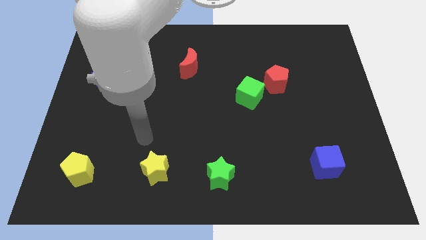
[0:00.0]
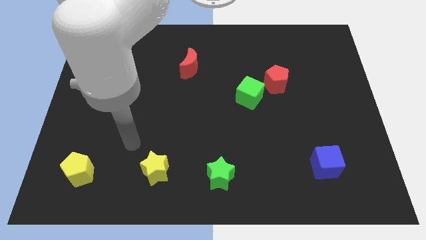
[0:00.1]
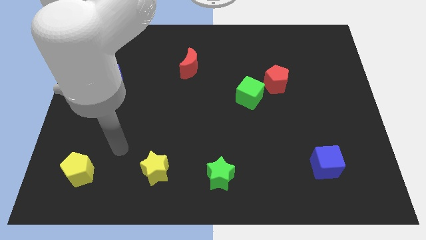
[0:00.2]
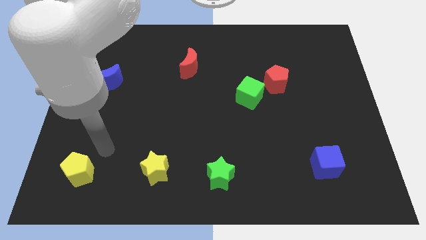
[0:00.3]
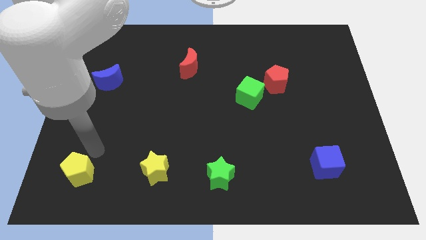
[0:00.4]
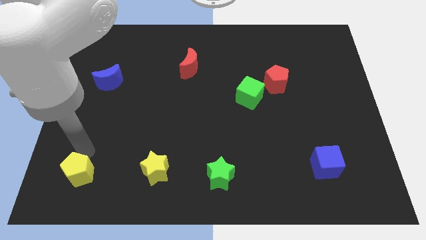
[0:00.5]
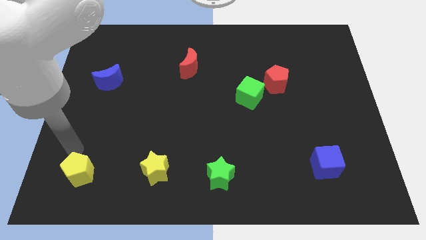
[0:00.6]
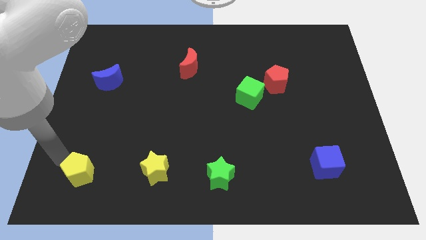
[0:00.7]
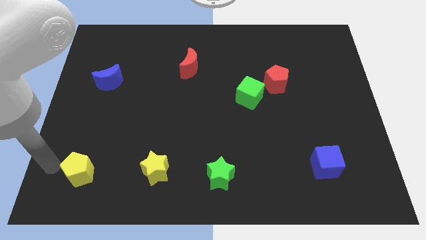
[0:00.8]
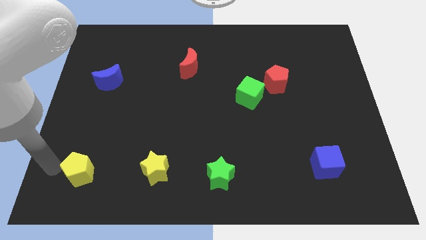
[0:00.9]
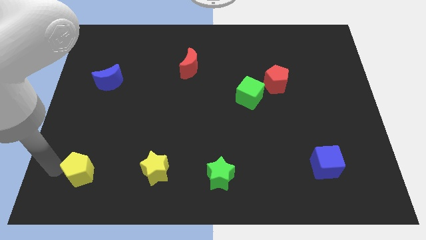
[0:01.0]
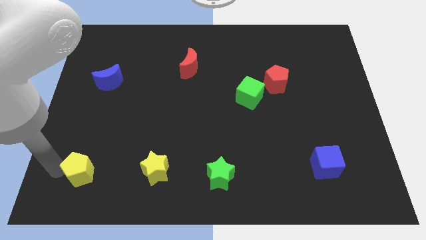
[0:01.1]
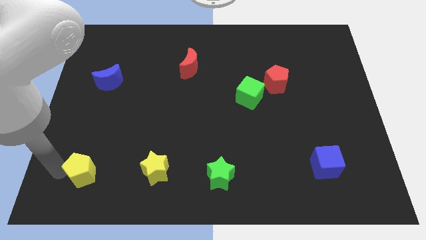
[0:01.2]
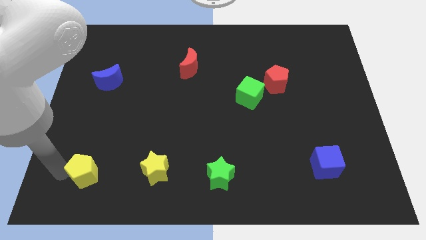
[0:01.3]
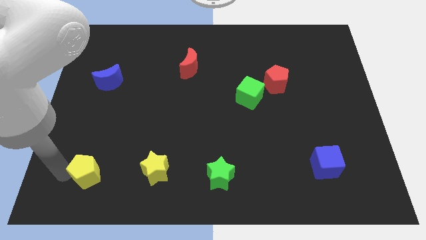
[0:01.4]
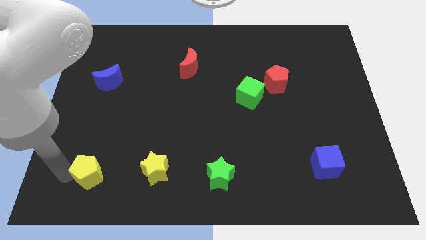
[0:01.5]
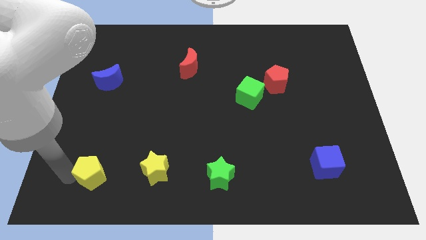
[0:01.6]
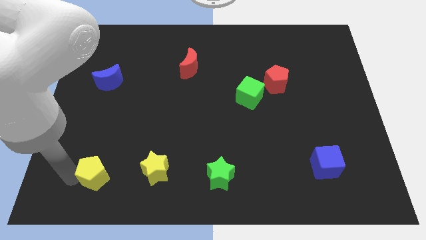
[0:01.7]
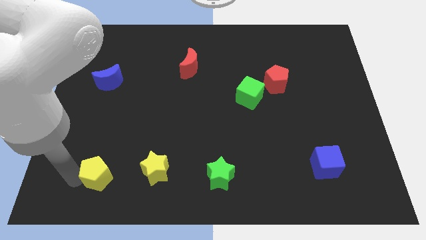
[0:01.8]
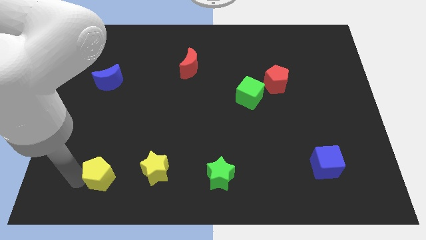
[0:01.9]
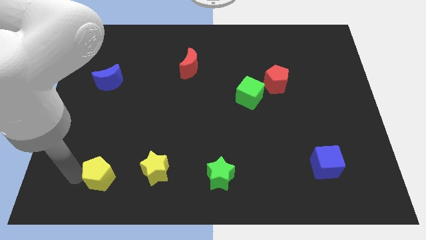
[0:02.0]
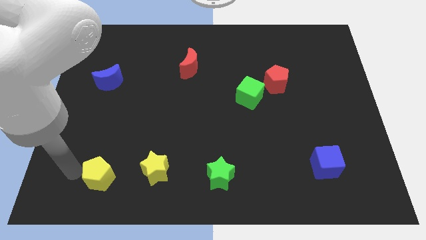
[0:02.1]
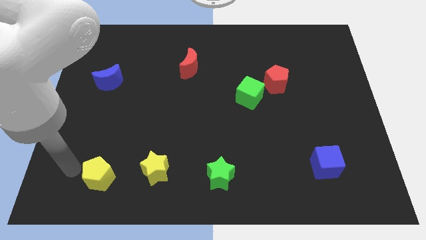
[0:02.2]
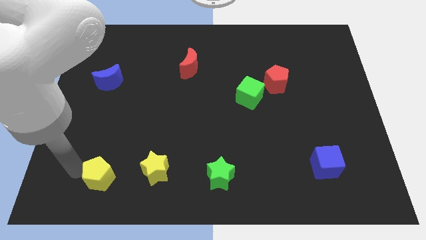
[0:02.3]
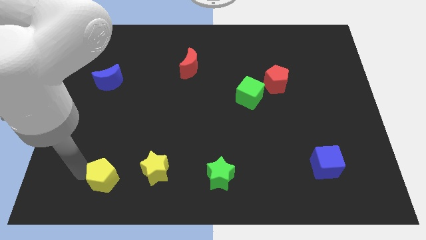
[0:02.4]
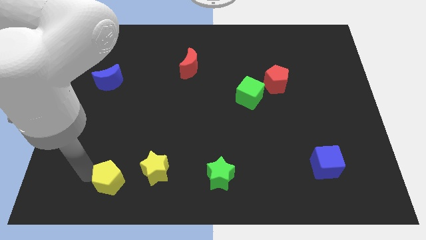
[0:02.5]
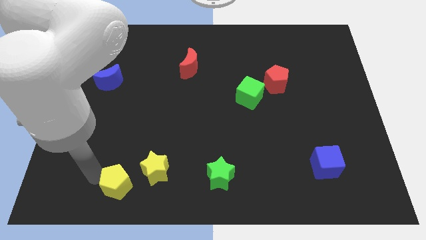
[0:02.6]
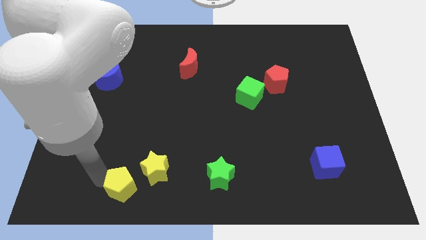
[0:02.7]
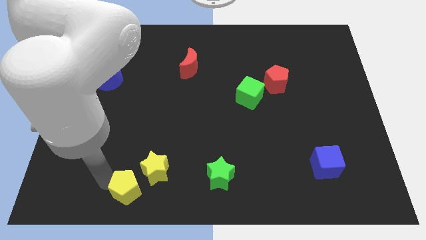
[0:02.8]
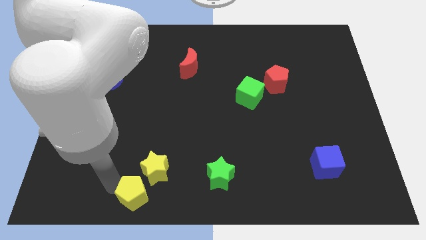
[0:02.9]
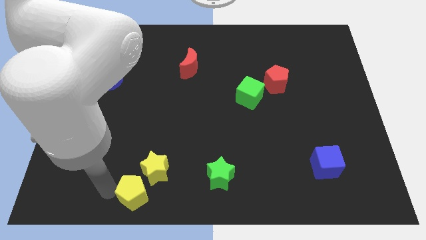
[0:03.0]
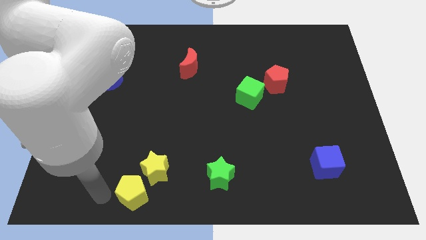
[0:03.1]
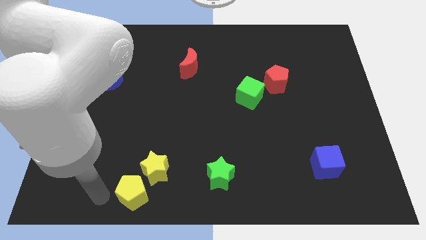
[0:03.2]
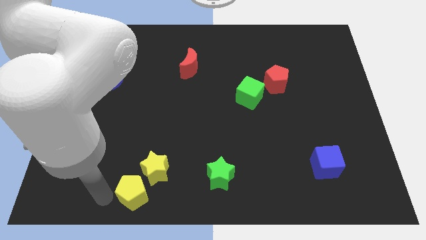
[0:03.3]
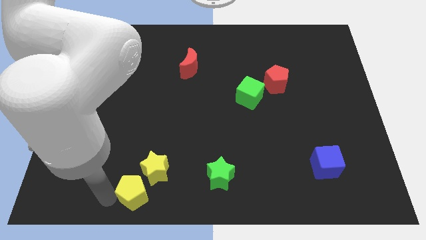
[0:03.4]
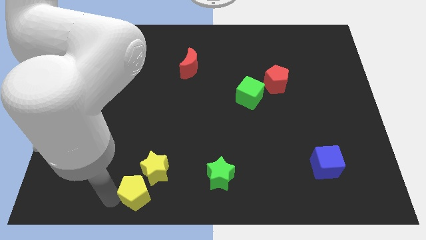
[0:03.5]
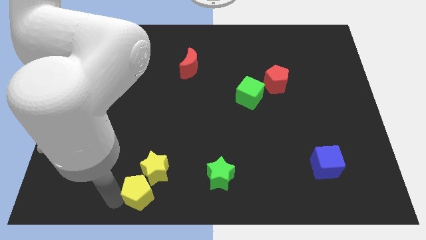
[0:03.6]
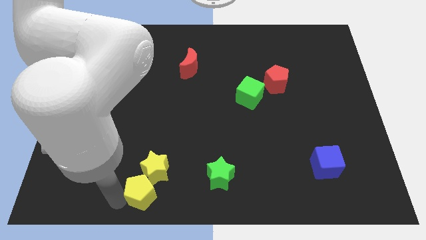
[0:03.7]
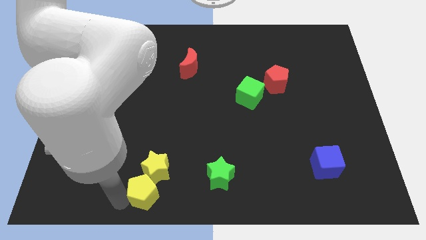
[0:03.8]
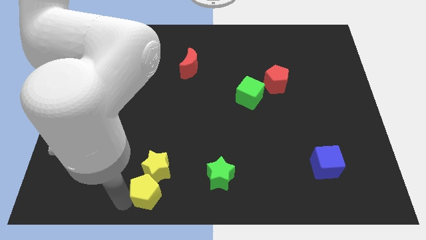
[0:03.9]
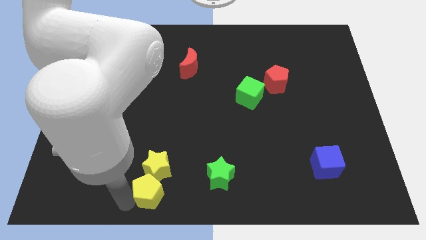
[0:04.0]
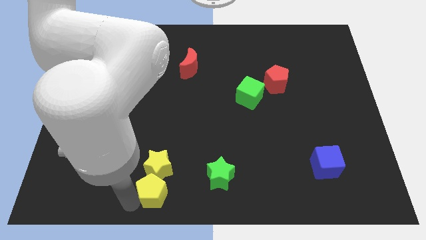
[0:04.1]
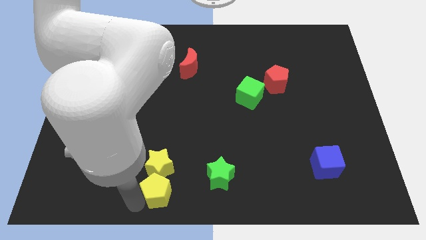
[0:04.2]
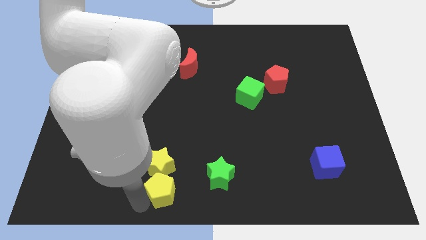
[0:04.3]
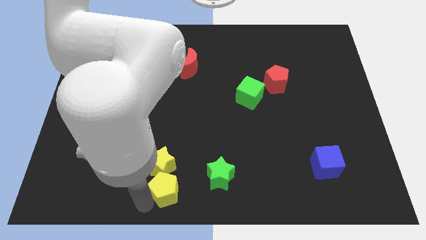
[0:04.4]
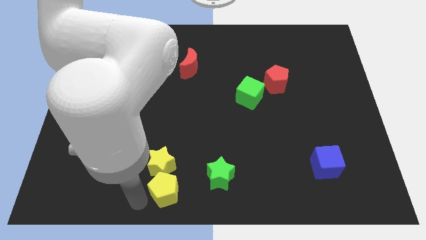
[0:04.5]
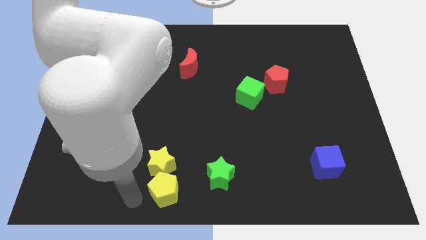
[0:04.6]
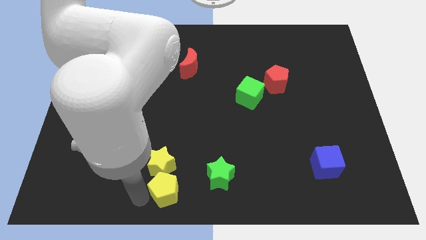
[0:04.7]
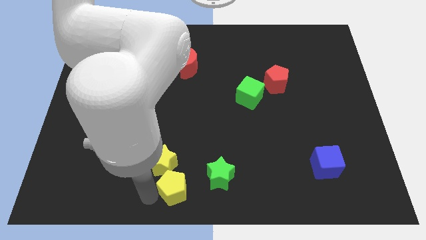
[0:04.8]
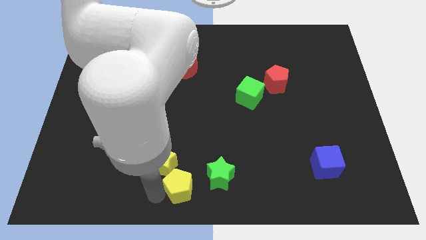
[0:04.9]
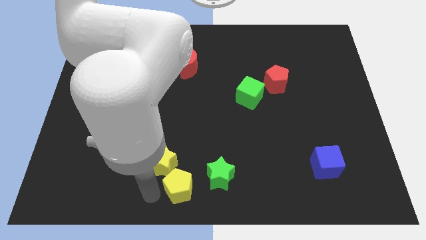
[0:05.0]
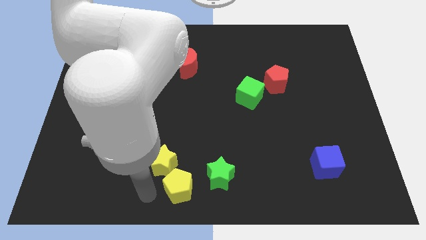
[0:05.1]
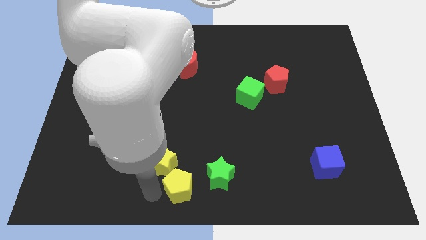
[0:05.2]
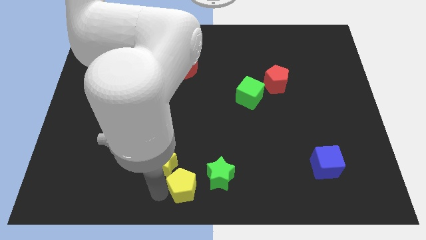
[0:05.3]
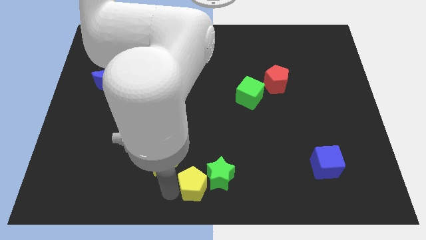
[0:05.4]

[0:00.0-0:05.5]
push the yellow pentagon to the green star

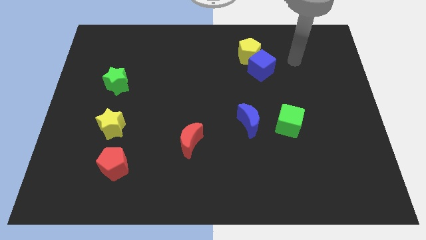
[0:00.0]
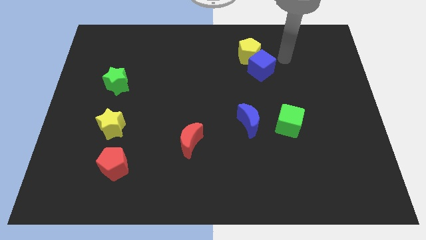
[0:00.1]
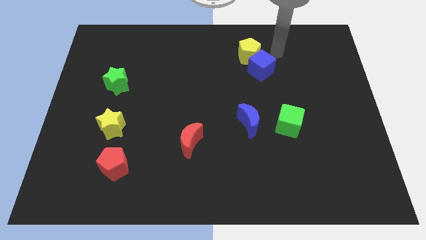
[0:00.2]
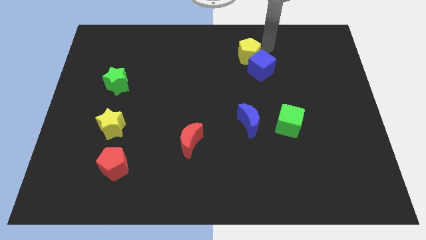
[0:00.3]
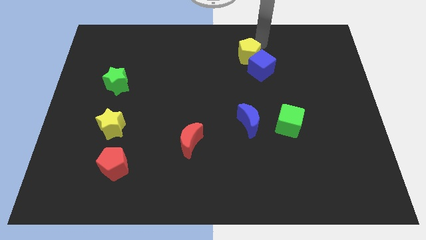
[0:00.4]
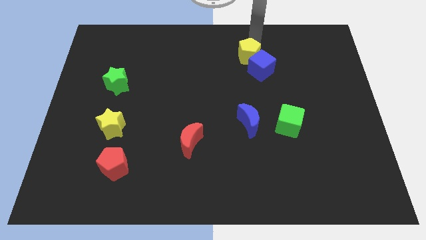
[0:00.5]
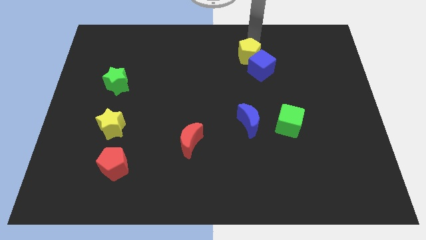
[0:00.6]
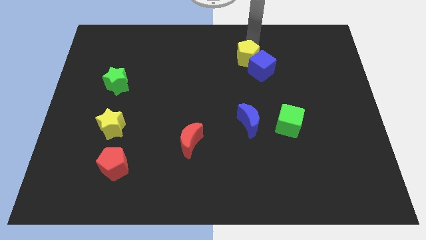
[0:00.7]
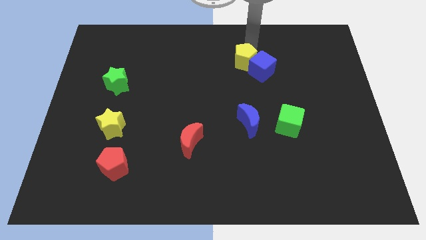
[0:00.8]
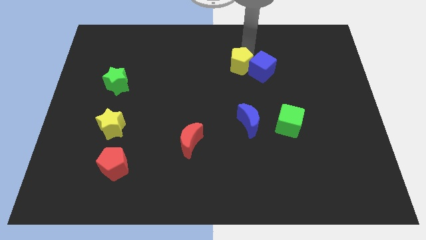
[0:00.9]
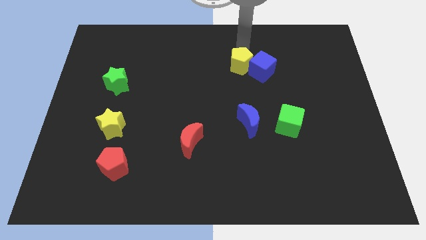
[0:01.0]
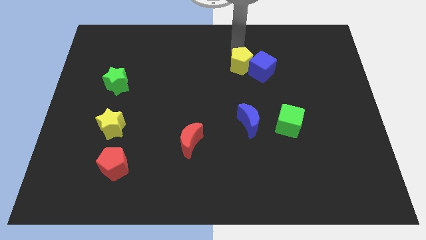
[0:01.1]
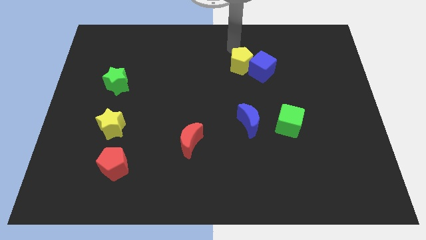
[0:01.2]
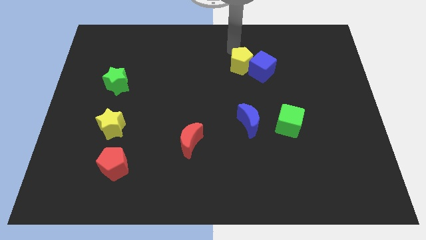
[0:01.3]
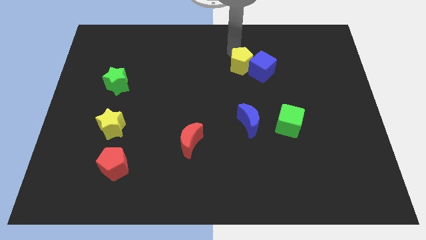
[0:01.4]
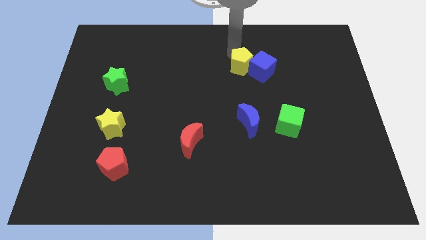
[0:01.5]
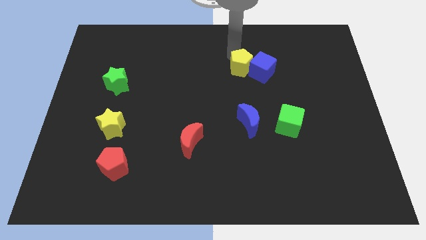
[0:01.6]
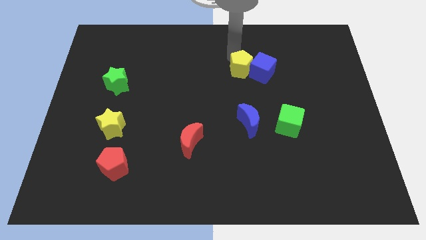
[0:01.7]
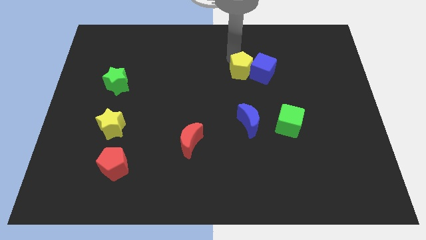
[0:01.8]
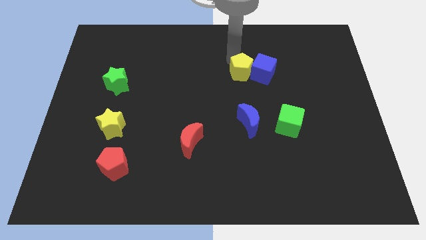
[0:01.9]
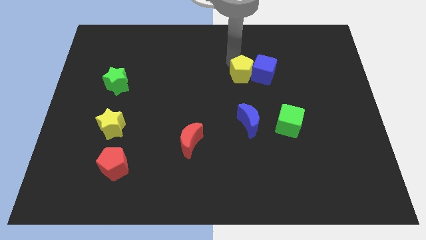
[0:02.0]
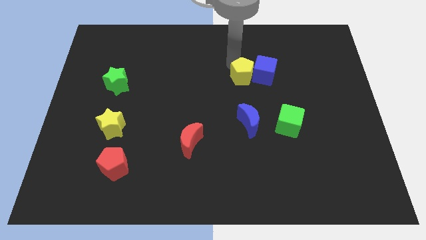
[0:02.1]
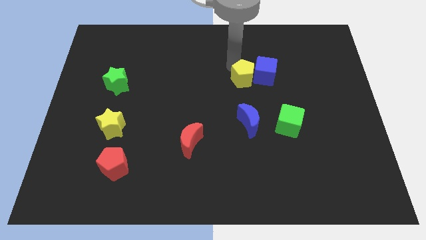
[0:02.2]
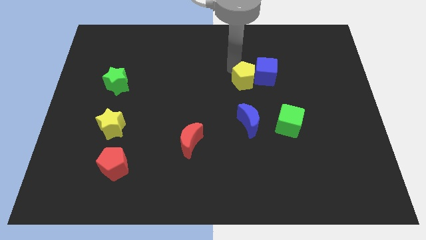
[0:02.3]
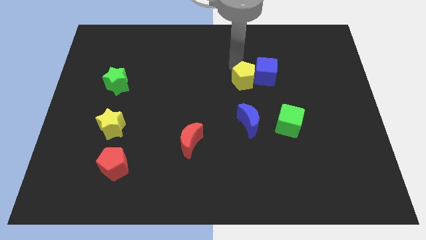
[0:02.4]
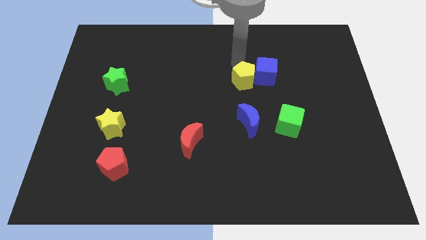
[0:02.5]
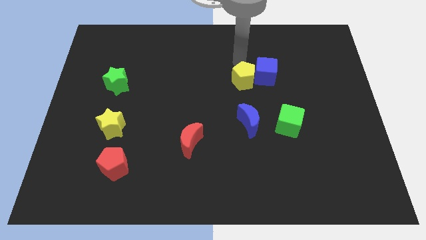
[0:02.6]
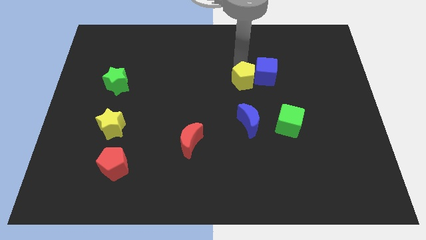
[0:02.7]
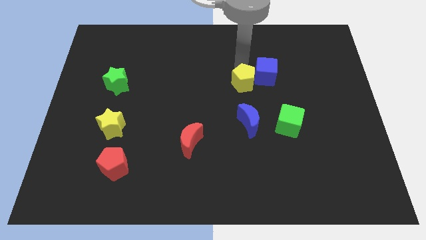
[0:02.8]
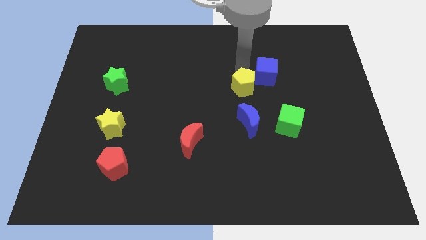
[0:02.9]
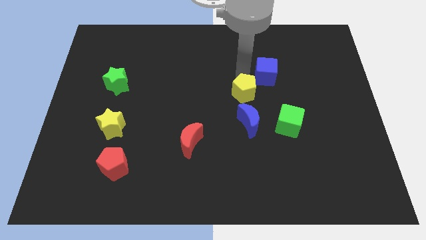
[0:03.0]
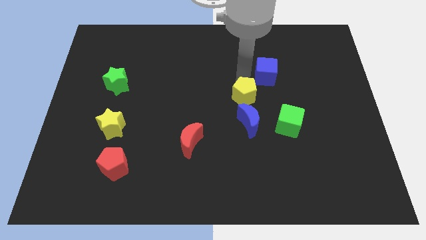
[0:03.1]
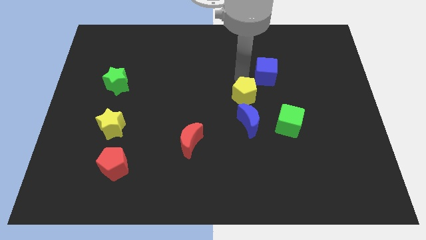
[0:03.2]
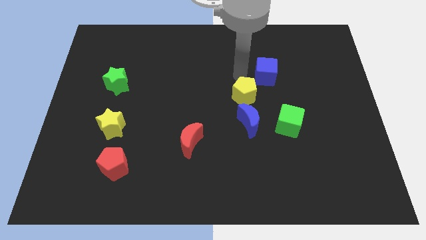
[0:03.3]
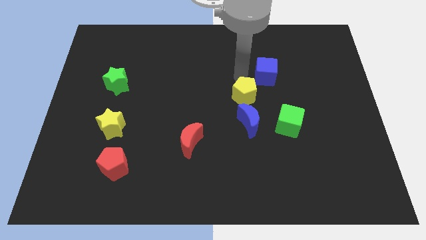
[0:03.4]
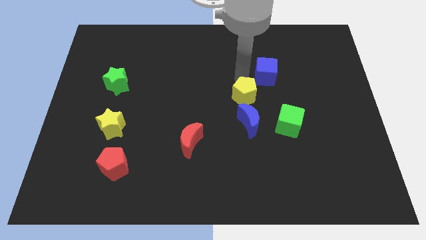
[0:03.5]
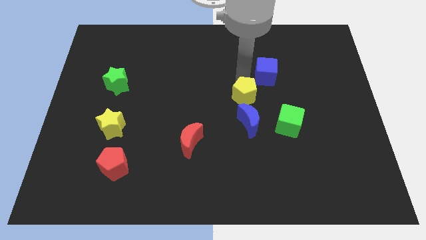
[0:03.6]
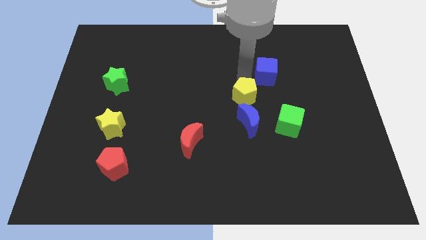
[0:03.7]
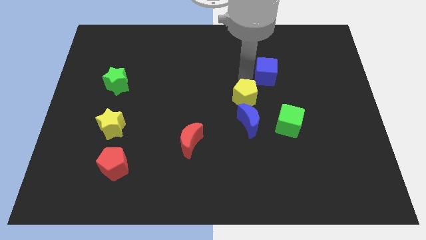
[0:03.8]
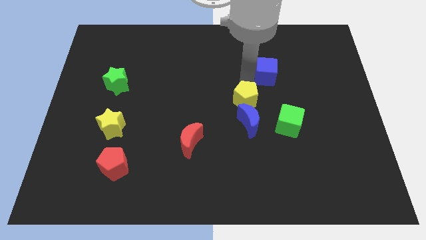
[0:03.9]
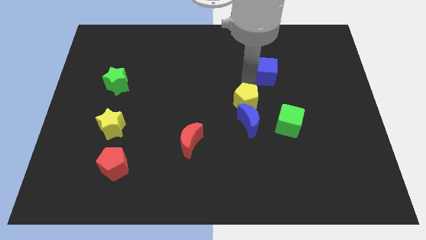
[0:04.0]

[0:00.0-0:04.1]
move the yellow pentagon close to the blue moon
